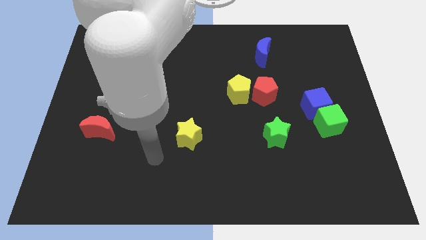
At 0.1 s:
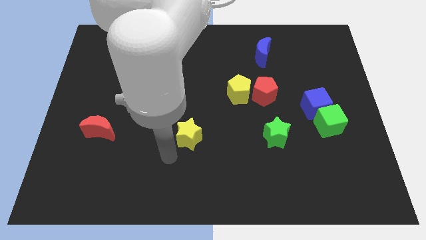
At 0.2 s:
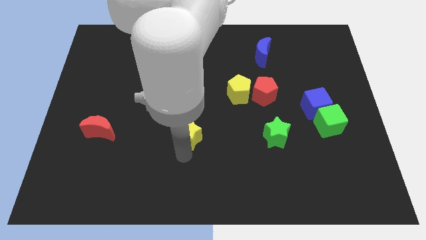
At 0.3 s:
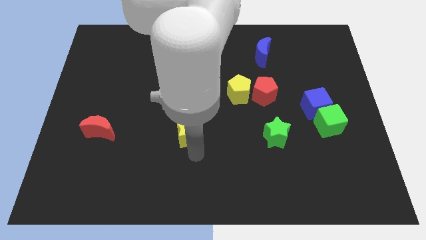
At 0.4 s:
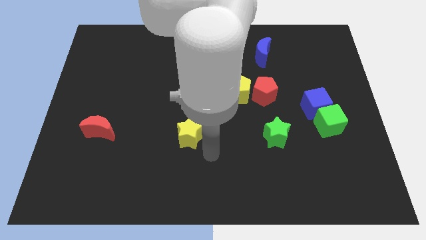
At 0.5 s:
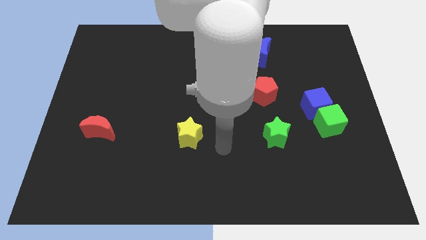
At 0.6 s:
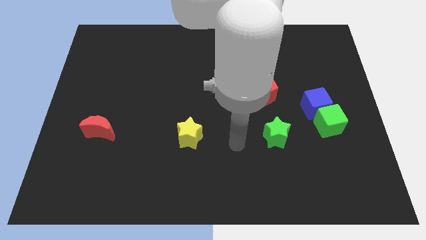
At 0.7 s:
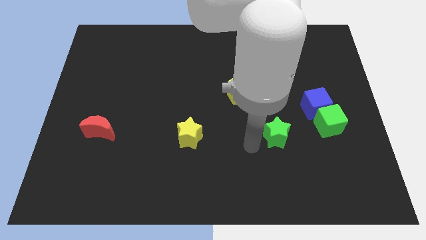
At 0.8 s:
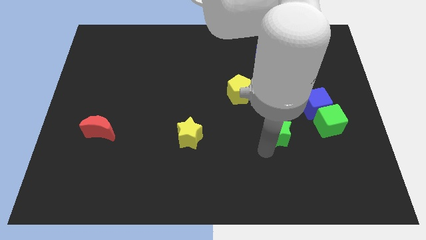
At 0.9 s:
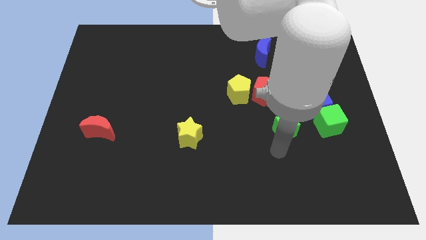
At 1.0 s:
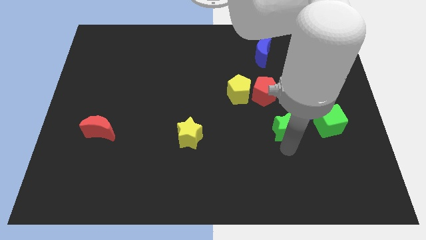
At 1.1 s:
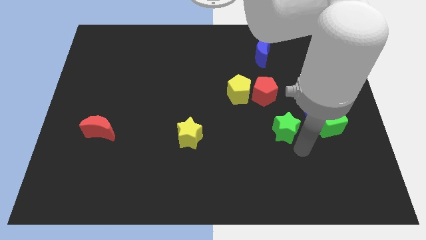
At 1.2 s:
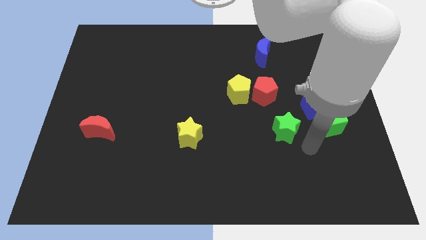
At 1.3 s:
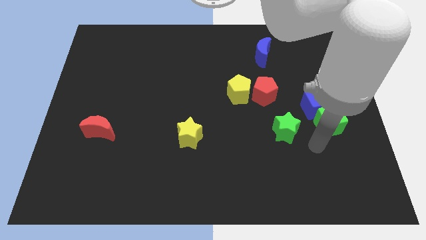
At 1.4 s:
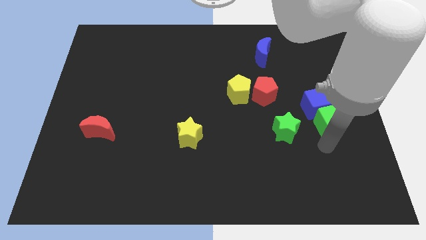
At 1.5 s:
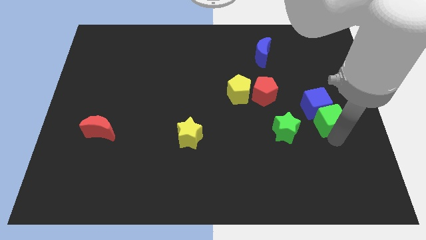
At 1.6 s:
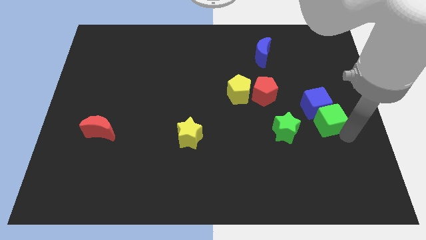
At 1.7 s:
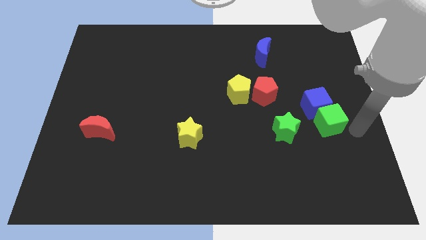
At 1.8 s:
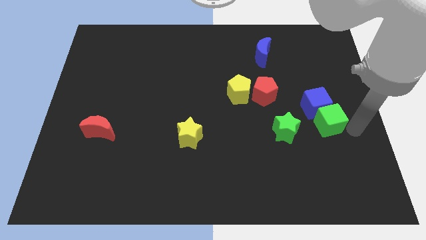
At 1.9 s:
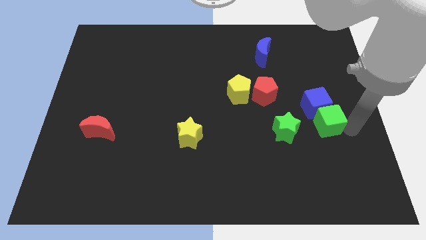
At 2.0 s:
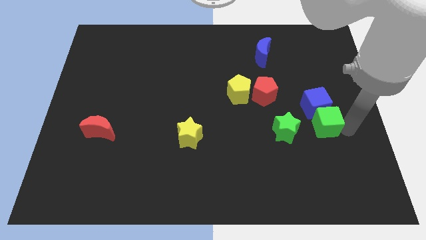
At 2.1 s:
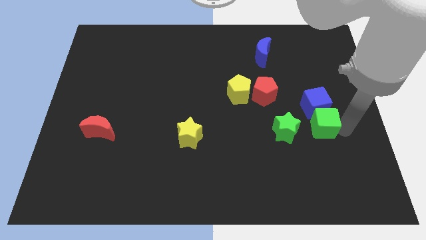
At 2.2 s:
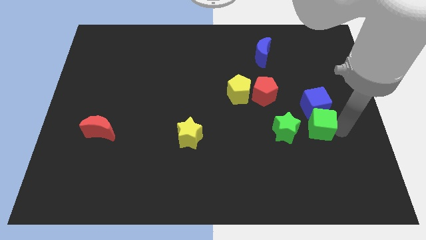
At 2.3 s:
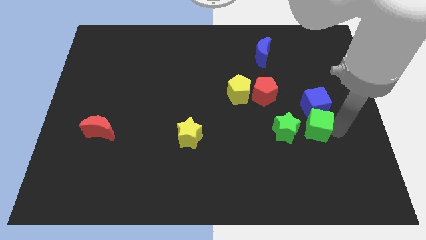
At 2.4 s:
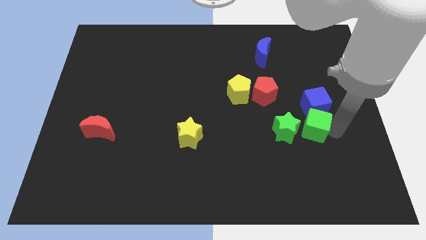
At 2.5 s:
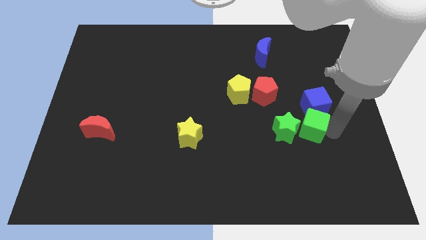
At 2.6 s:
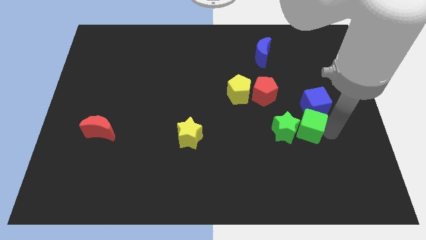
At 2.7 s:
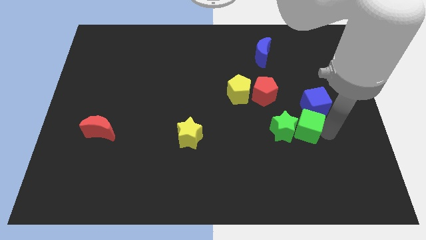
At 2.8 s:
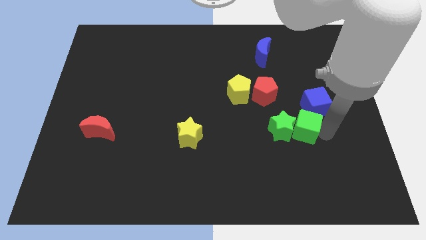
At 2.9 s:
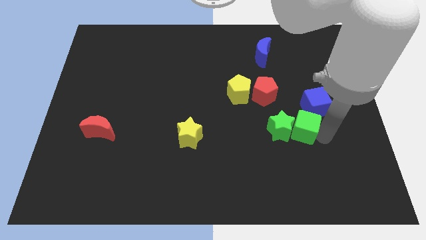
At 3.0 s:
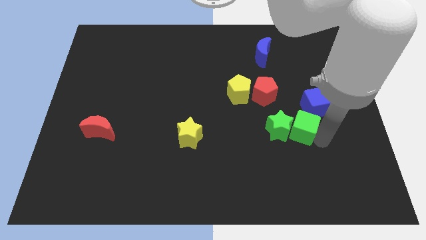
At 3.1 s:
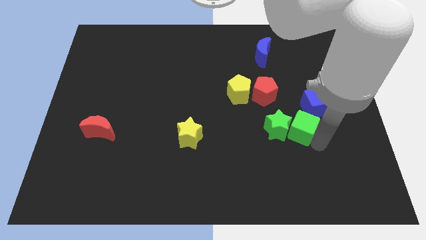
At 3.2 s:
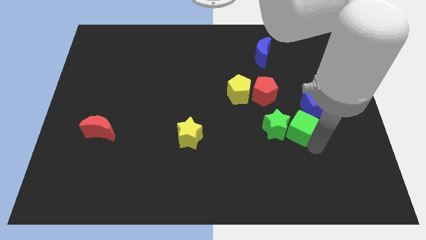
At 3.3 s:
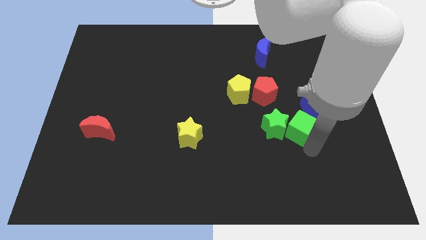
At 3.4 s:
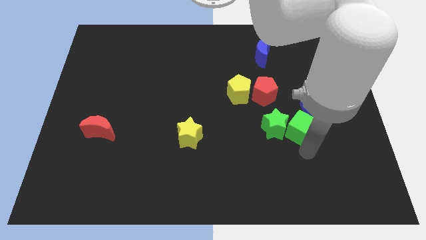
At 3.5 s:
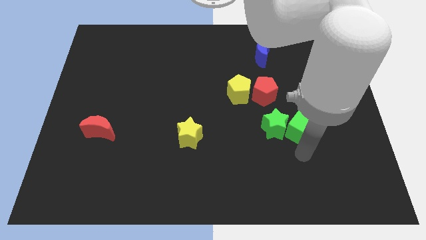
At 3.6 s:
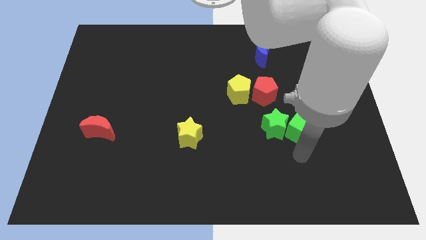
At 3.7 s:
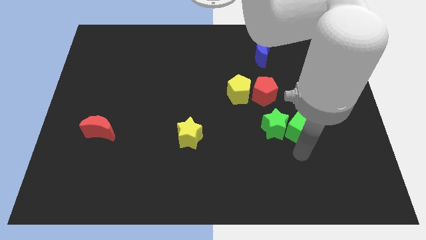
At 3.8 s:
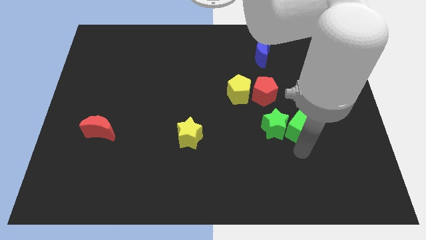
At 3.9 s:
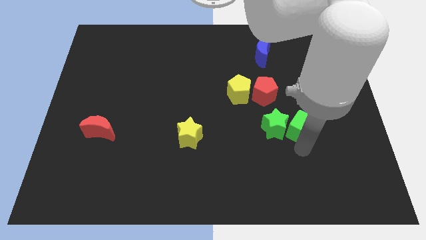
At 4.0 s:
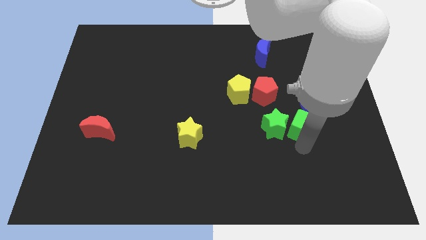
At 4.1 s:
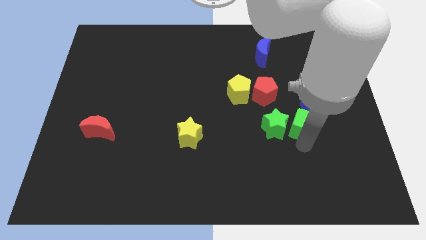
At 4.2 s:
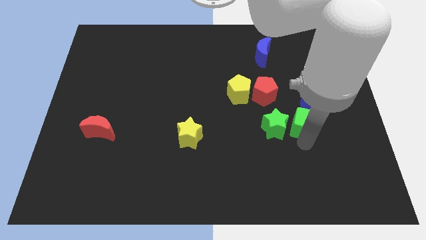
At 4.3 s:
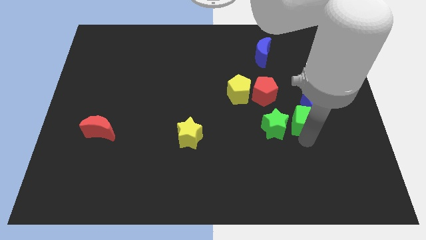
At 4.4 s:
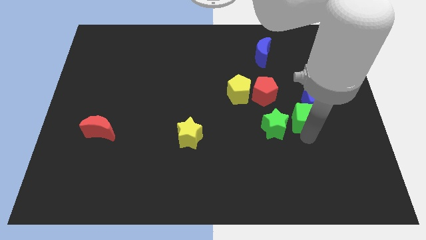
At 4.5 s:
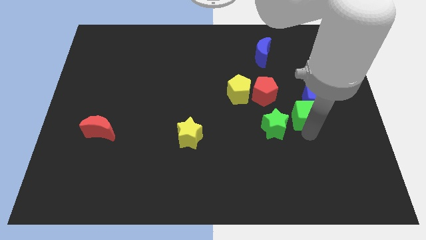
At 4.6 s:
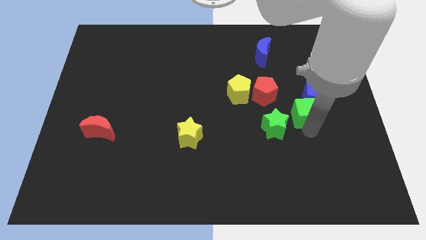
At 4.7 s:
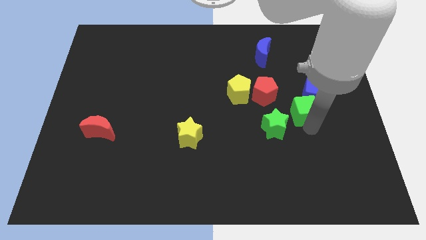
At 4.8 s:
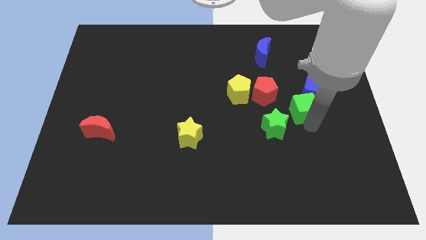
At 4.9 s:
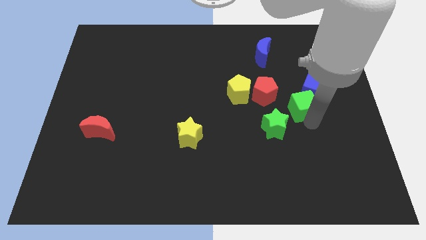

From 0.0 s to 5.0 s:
slide the green cube a bit up and to the left diagonally

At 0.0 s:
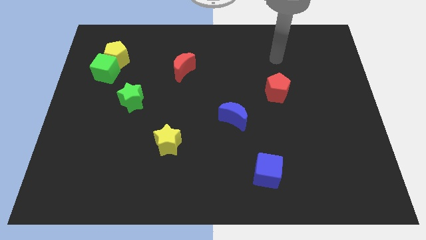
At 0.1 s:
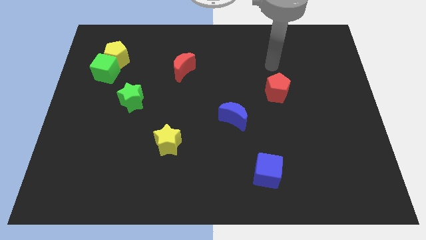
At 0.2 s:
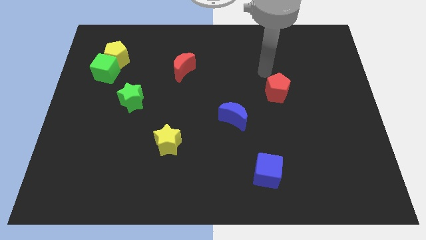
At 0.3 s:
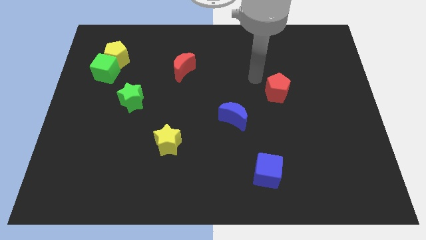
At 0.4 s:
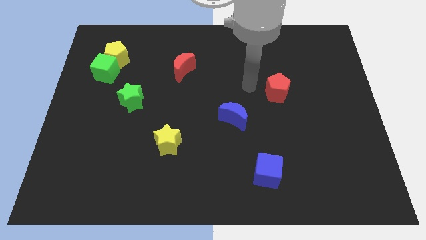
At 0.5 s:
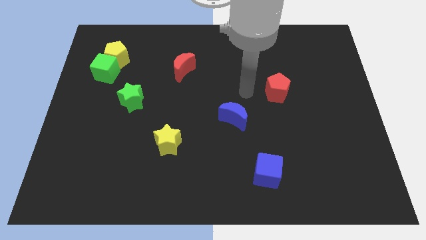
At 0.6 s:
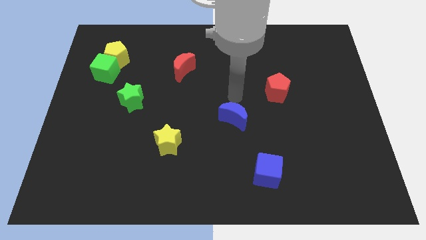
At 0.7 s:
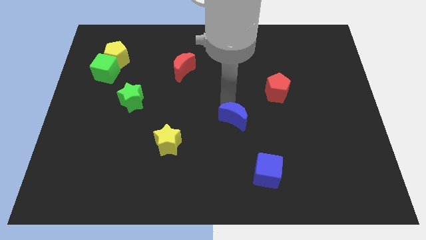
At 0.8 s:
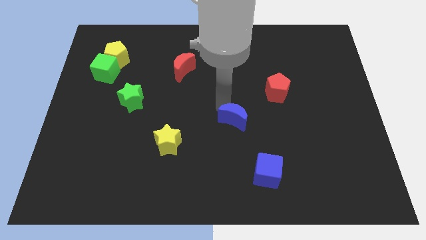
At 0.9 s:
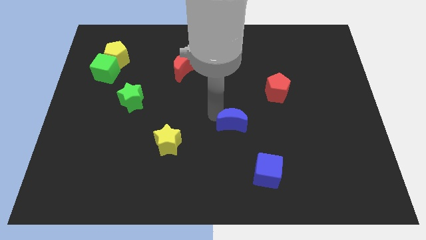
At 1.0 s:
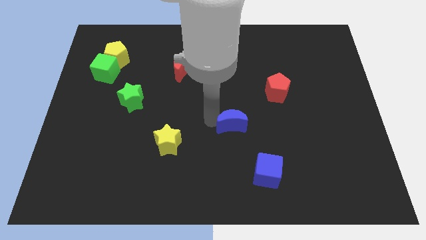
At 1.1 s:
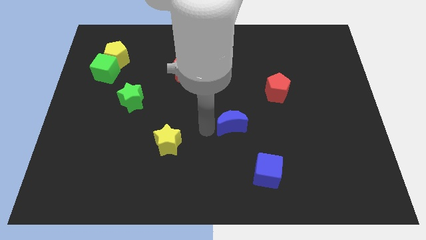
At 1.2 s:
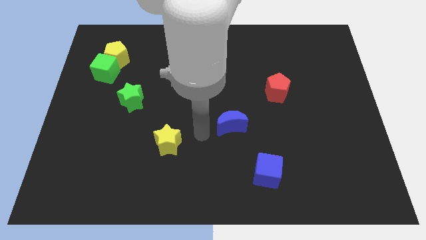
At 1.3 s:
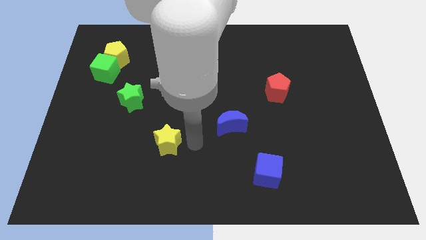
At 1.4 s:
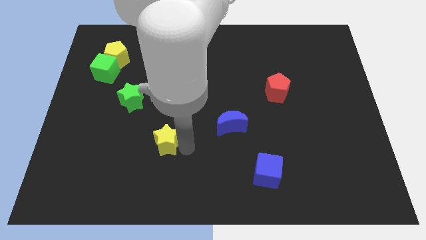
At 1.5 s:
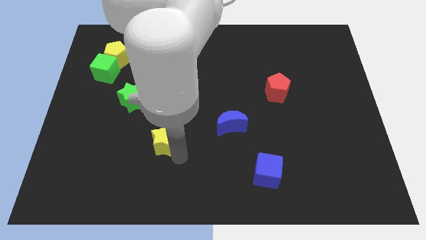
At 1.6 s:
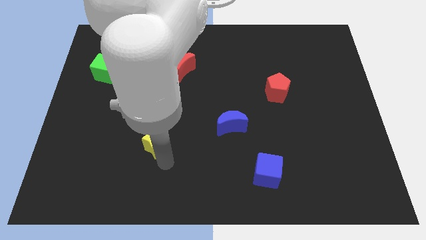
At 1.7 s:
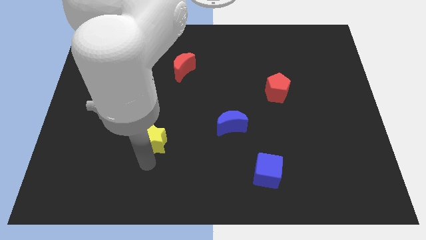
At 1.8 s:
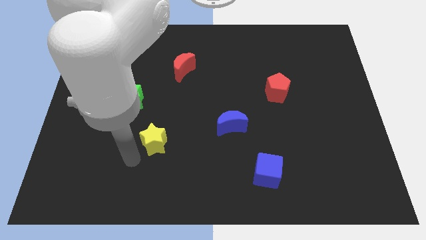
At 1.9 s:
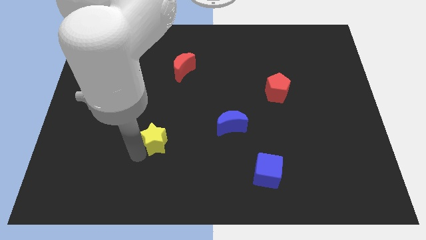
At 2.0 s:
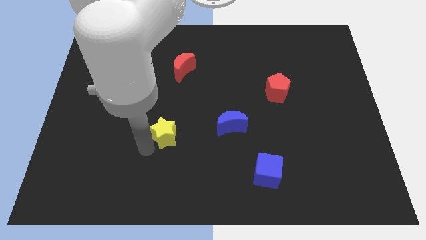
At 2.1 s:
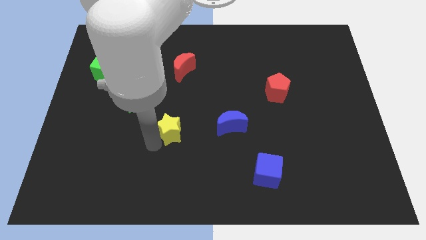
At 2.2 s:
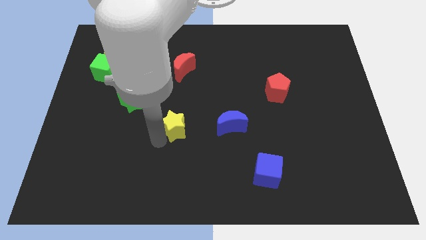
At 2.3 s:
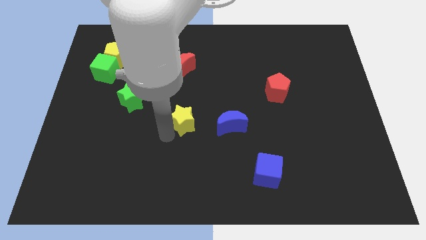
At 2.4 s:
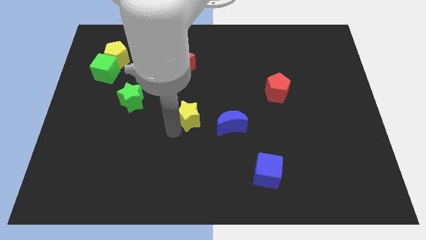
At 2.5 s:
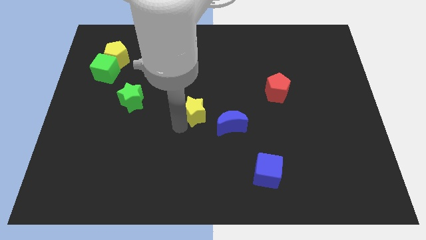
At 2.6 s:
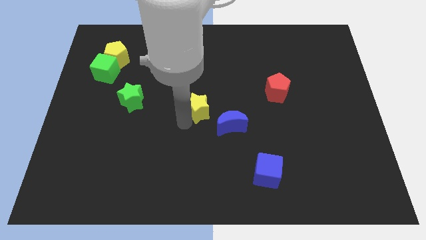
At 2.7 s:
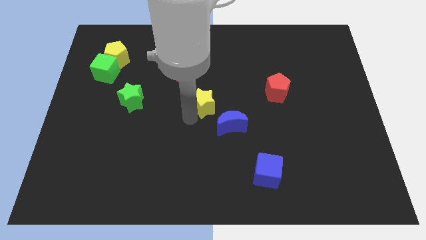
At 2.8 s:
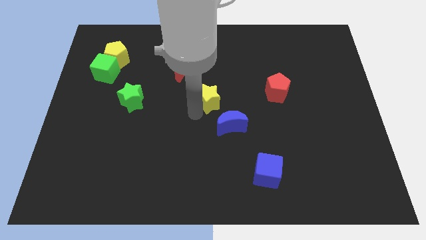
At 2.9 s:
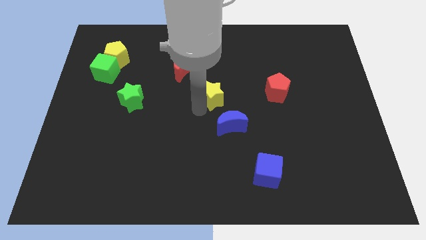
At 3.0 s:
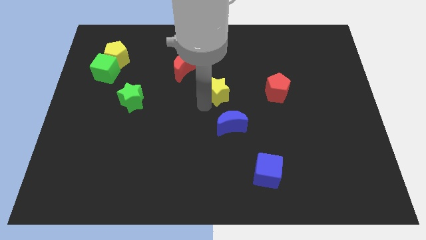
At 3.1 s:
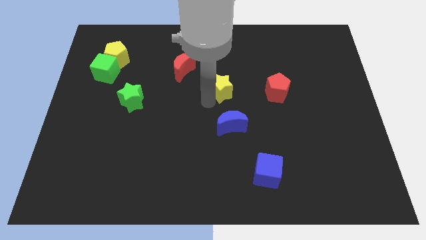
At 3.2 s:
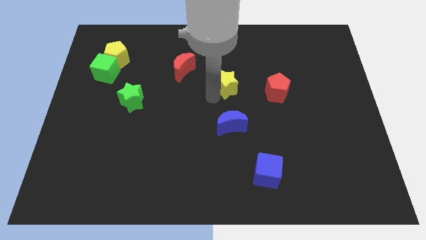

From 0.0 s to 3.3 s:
move the yellow star up and then to the right
